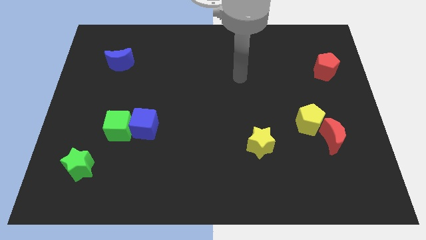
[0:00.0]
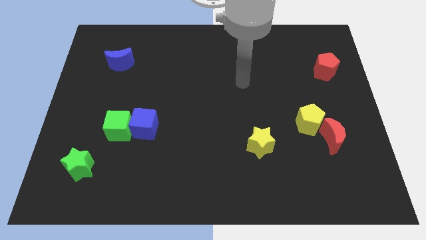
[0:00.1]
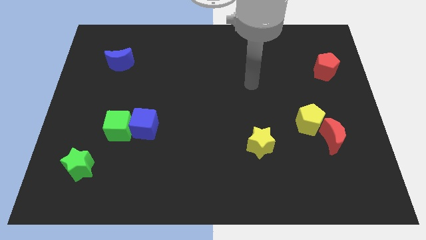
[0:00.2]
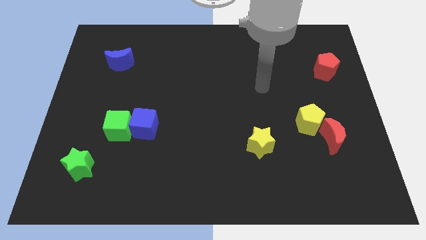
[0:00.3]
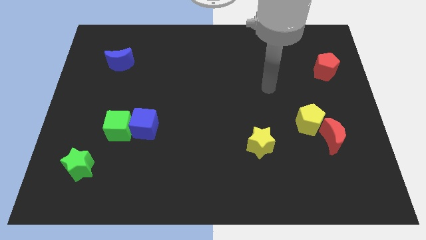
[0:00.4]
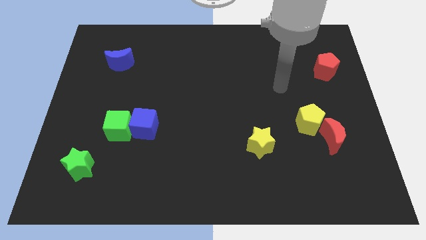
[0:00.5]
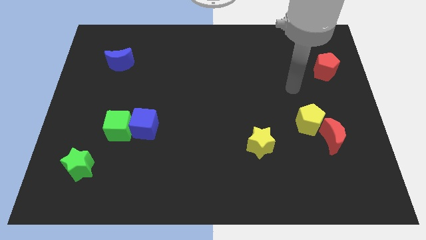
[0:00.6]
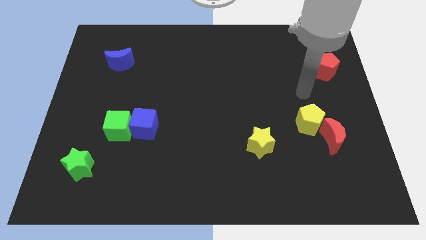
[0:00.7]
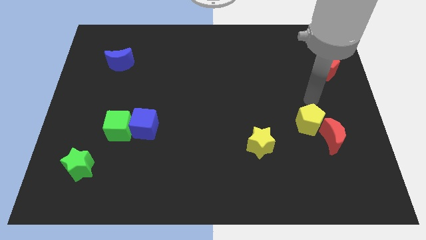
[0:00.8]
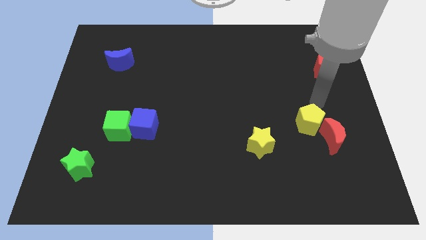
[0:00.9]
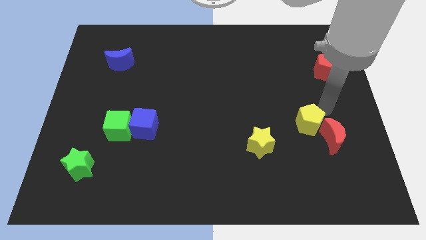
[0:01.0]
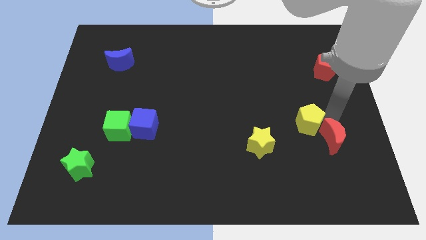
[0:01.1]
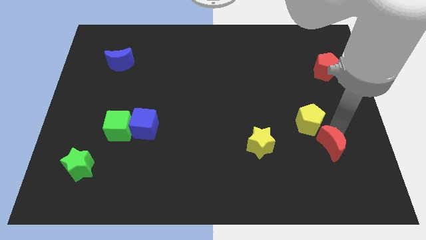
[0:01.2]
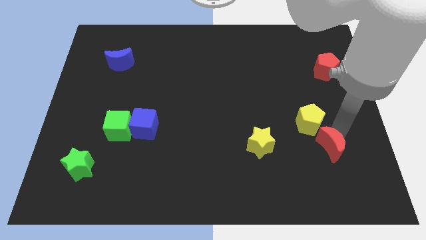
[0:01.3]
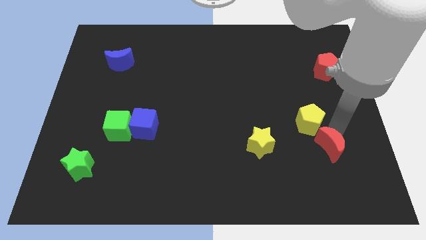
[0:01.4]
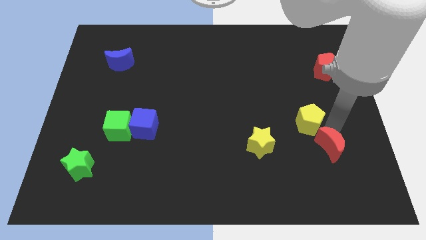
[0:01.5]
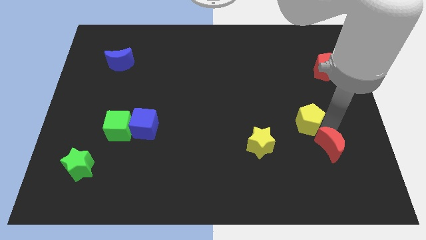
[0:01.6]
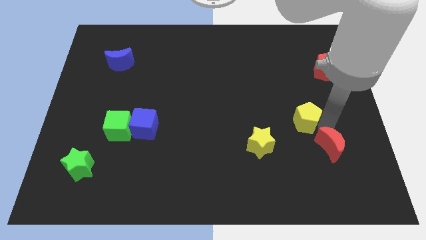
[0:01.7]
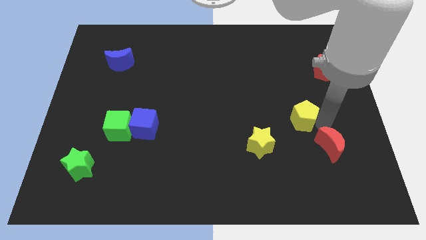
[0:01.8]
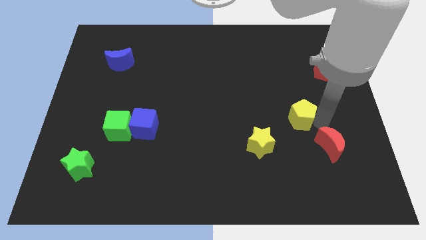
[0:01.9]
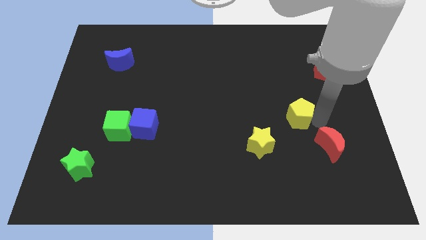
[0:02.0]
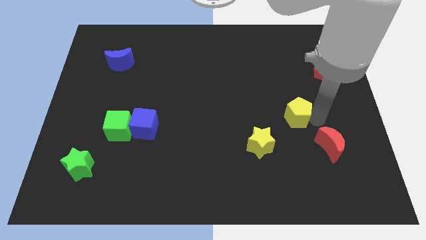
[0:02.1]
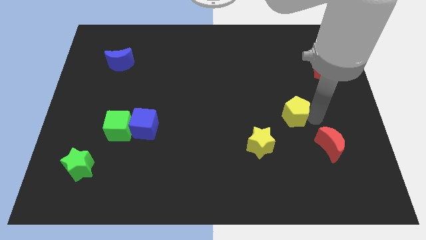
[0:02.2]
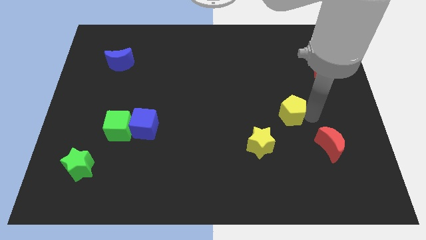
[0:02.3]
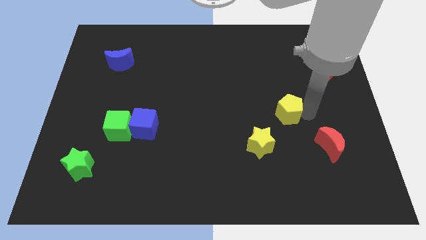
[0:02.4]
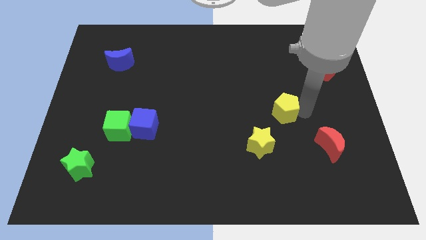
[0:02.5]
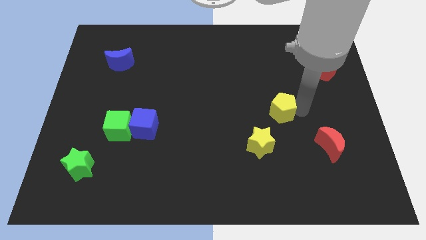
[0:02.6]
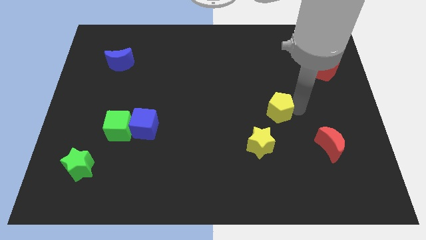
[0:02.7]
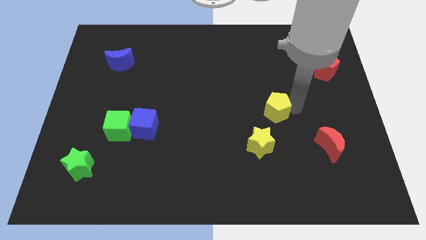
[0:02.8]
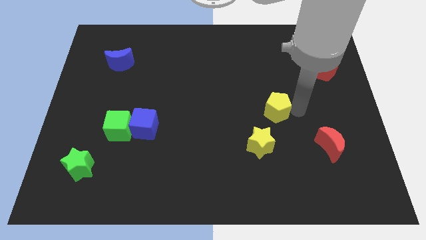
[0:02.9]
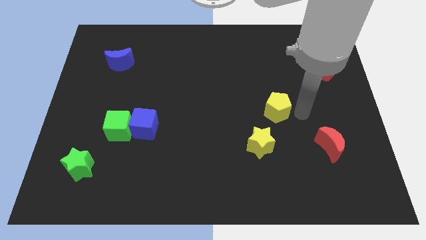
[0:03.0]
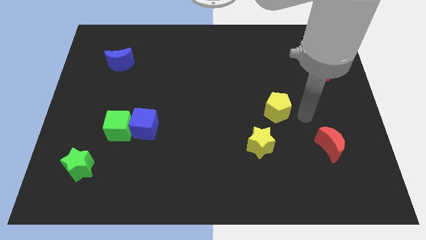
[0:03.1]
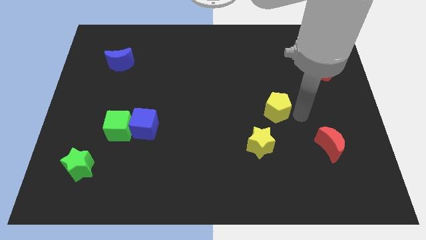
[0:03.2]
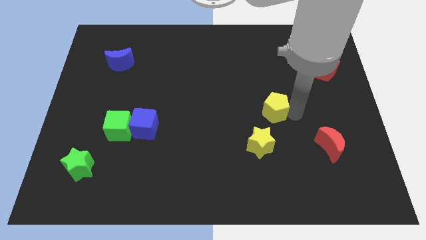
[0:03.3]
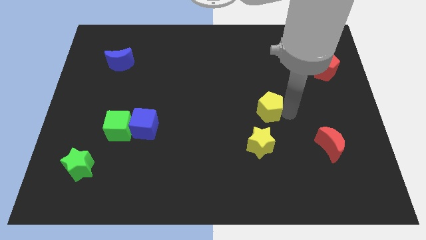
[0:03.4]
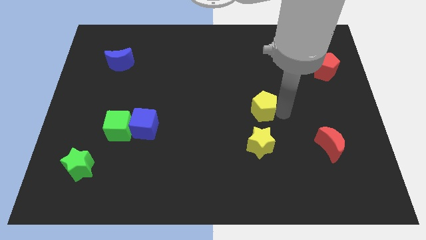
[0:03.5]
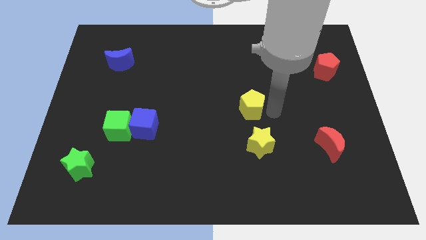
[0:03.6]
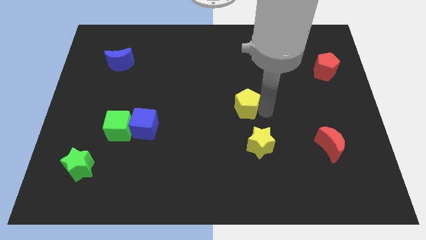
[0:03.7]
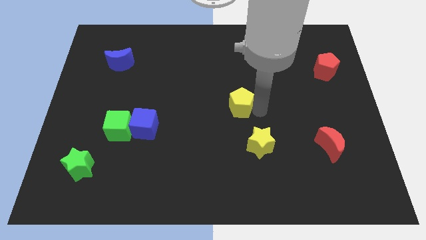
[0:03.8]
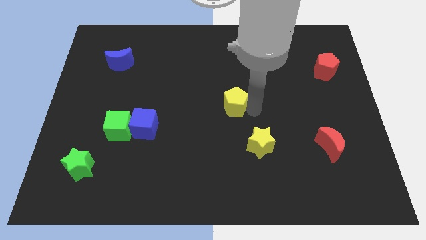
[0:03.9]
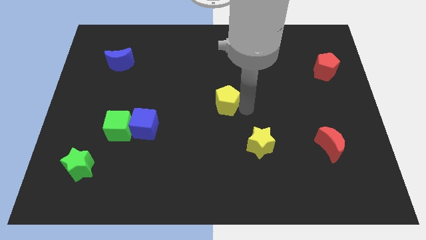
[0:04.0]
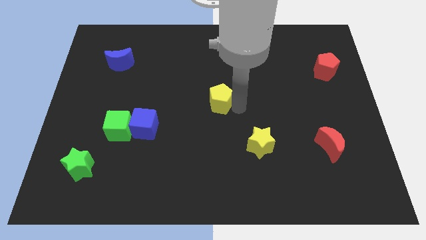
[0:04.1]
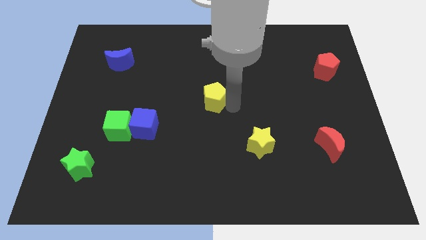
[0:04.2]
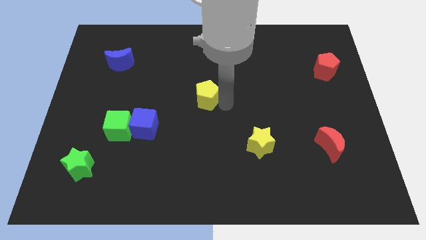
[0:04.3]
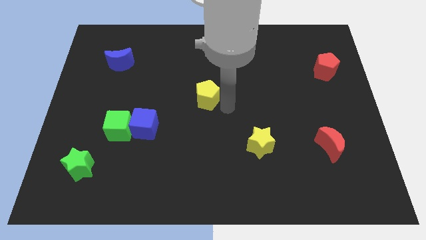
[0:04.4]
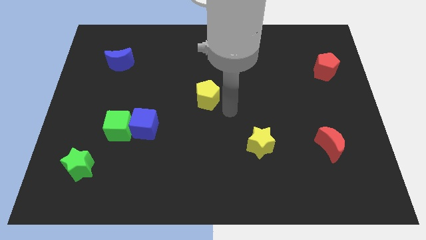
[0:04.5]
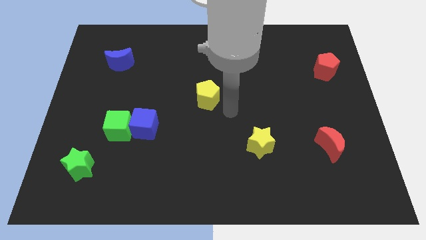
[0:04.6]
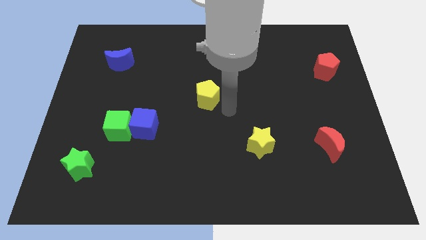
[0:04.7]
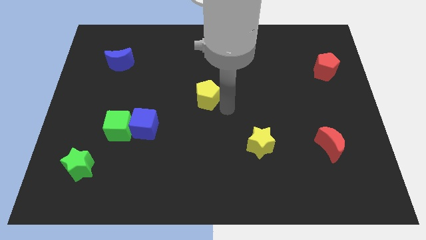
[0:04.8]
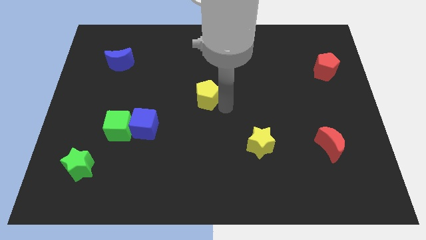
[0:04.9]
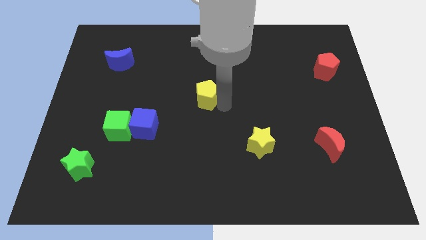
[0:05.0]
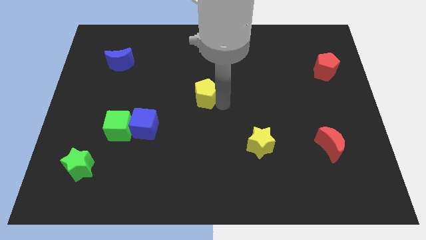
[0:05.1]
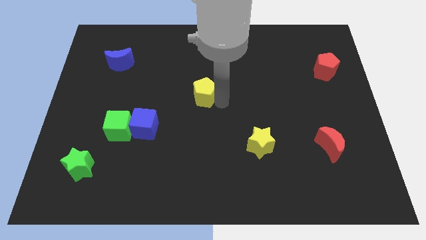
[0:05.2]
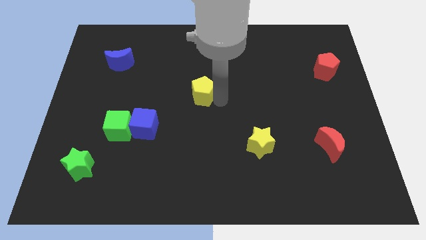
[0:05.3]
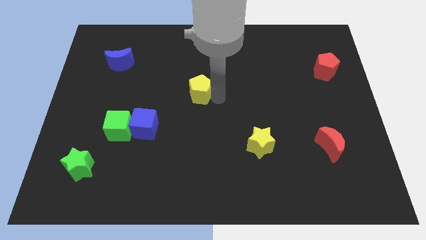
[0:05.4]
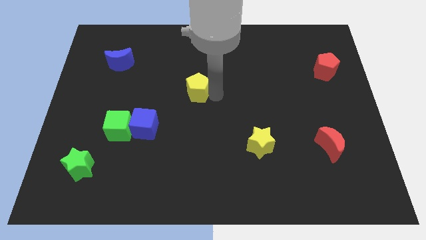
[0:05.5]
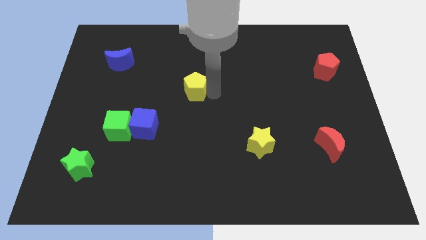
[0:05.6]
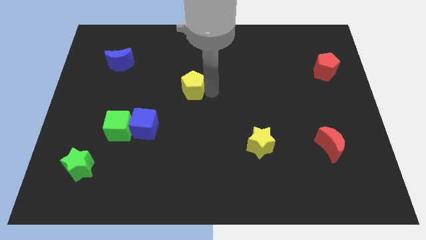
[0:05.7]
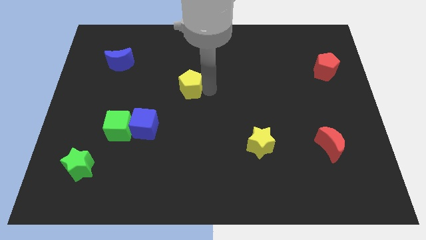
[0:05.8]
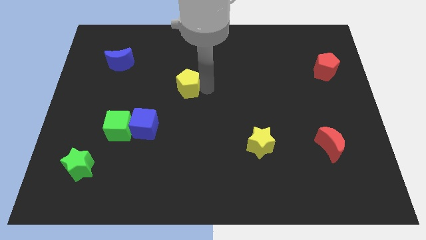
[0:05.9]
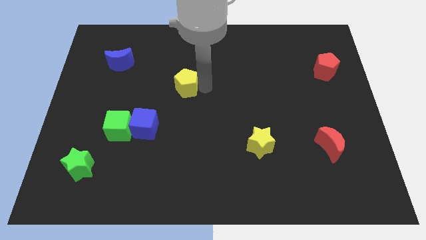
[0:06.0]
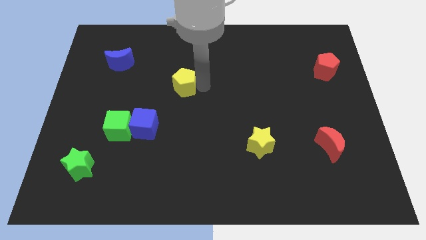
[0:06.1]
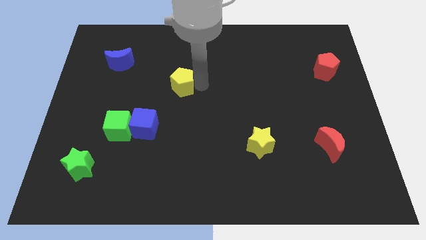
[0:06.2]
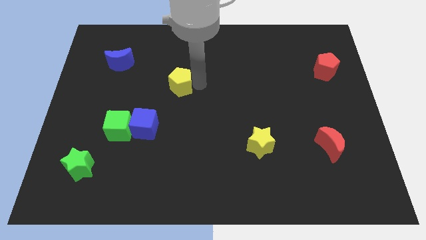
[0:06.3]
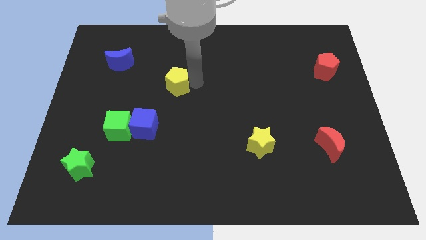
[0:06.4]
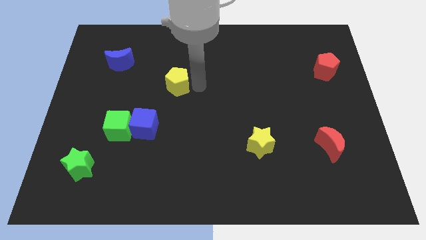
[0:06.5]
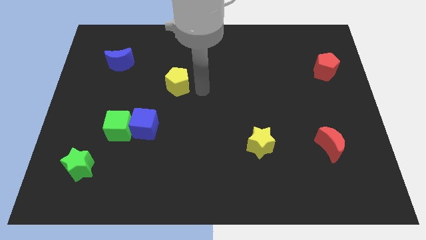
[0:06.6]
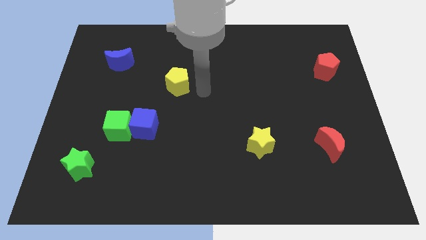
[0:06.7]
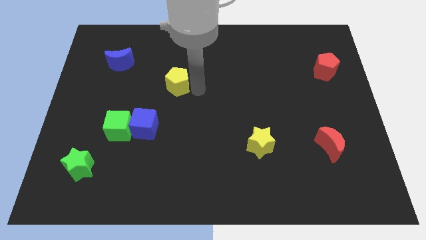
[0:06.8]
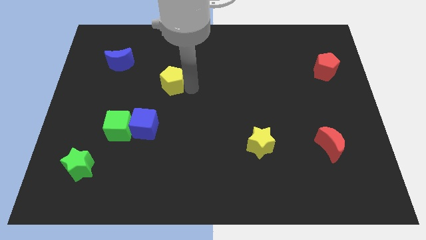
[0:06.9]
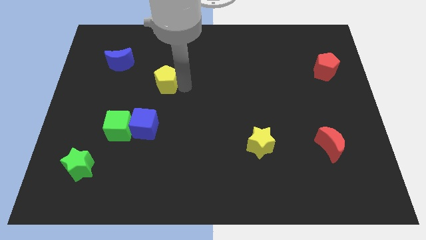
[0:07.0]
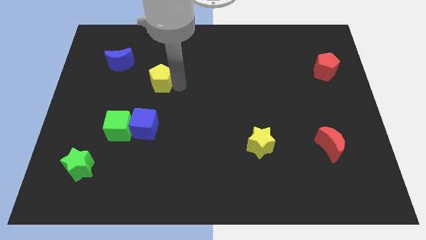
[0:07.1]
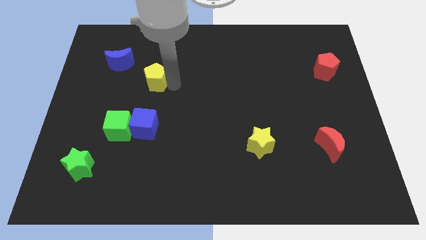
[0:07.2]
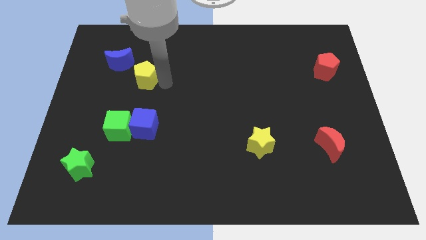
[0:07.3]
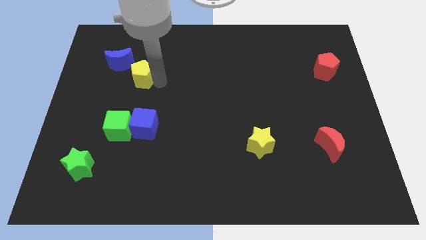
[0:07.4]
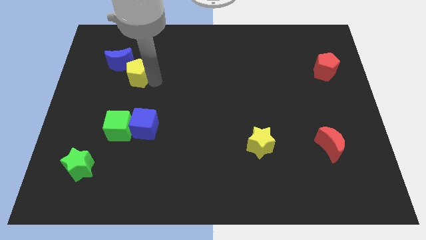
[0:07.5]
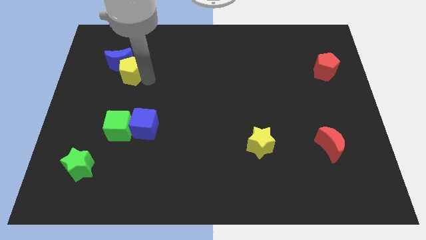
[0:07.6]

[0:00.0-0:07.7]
move the yellow pentagon to the blue moon

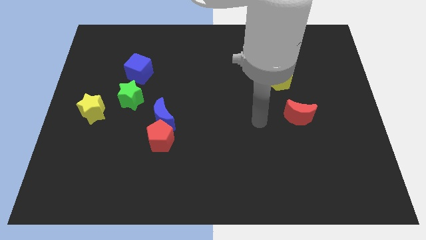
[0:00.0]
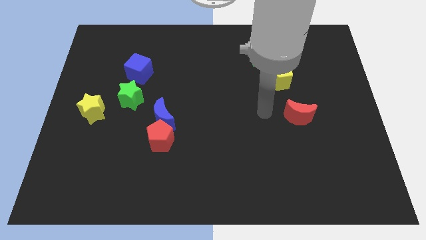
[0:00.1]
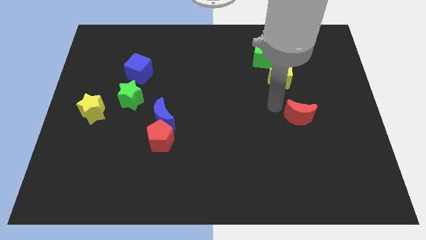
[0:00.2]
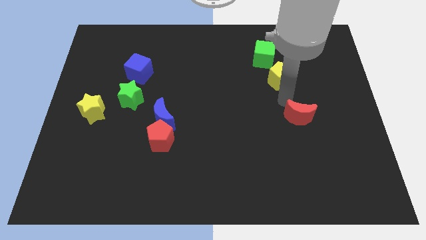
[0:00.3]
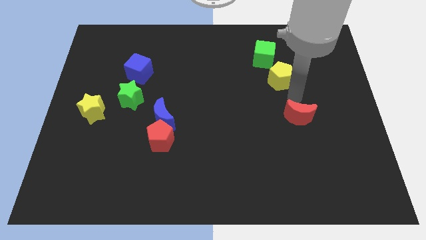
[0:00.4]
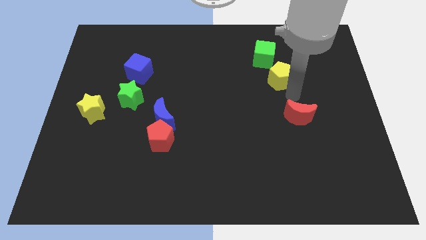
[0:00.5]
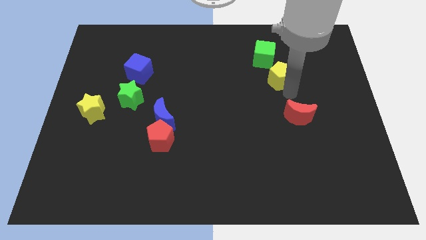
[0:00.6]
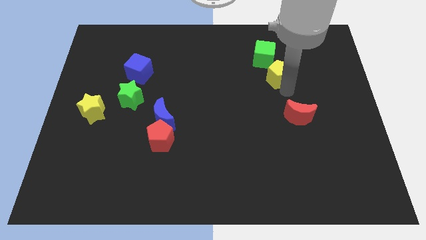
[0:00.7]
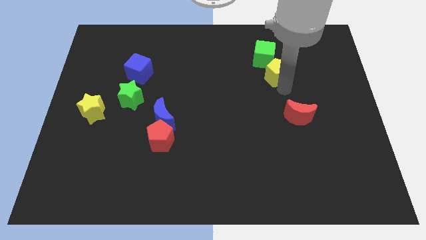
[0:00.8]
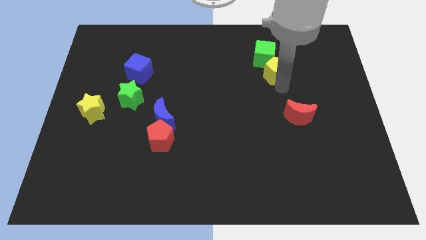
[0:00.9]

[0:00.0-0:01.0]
put the yellow pentagon to the green cube
